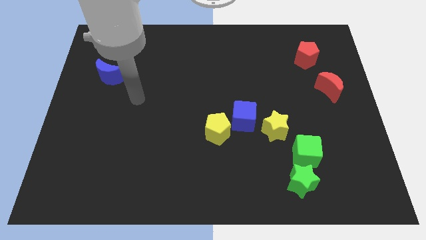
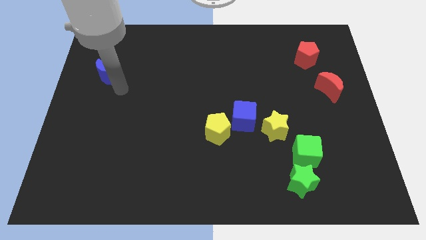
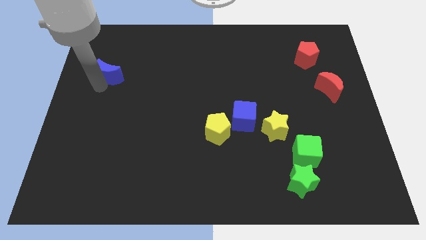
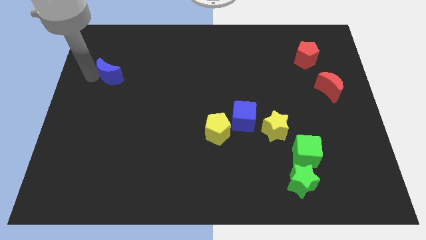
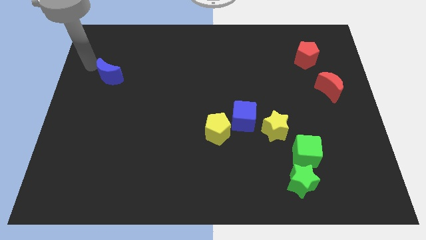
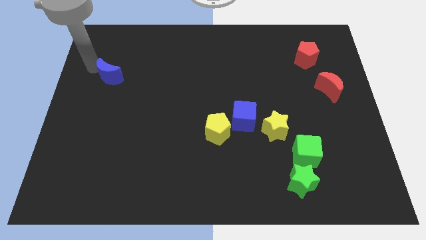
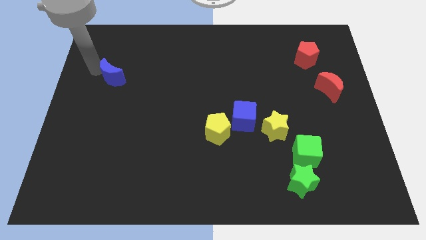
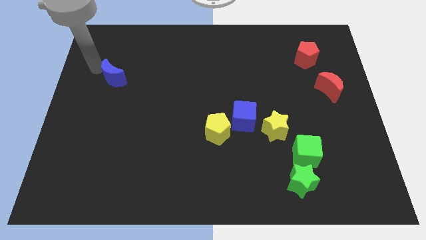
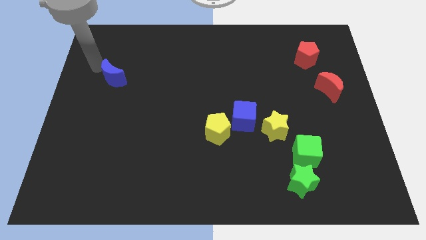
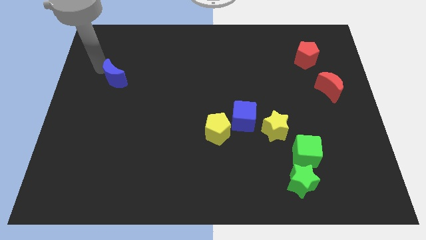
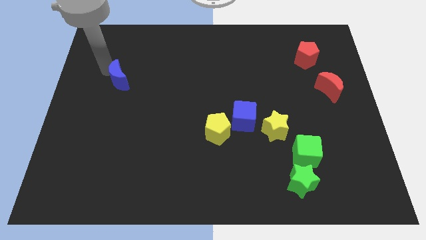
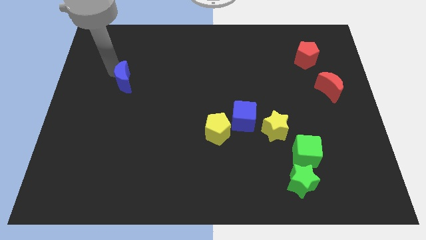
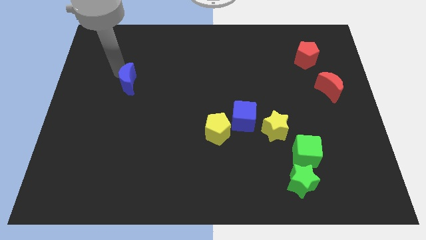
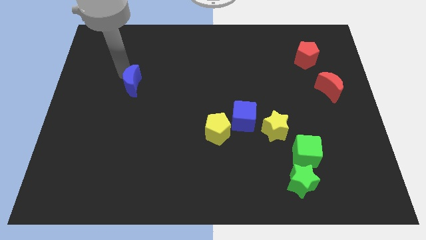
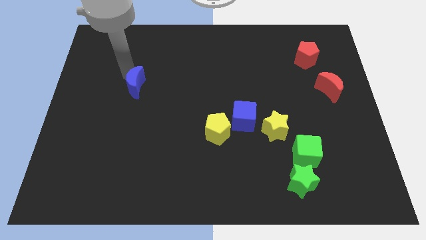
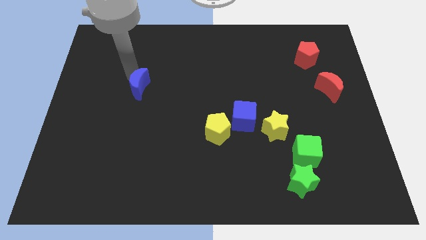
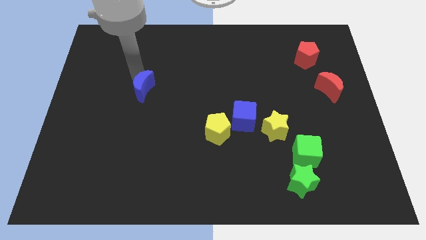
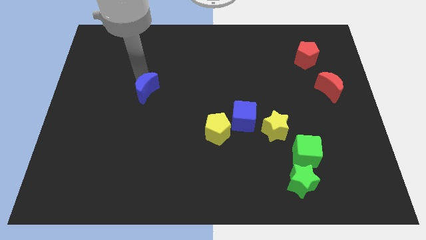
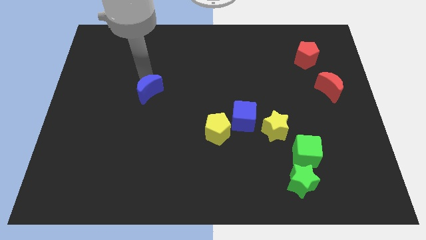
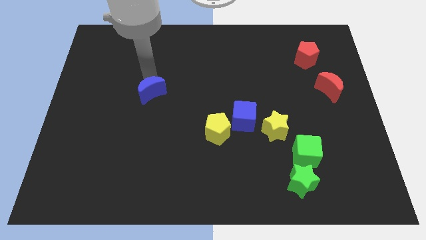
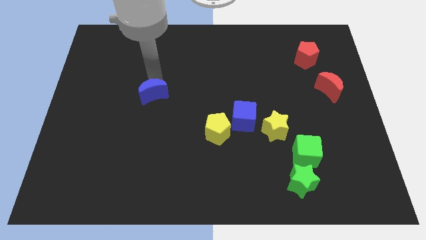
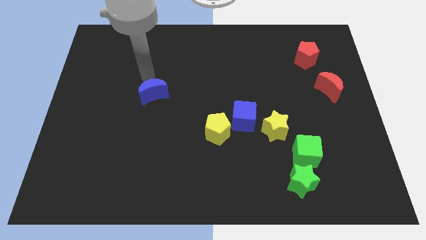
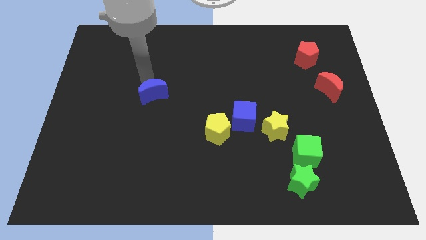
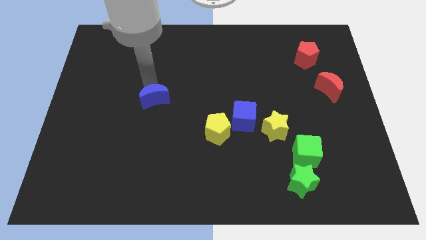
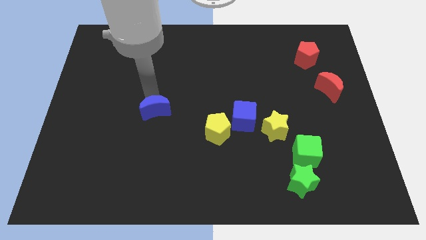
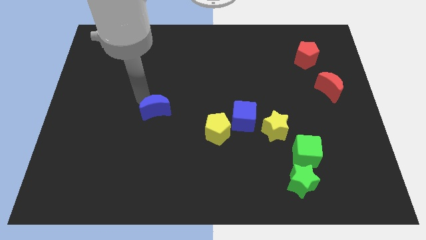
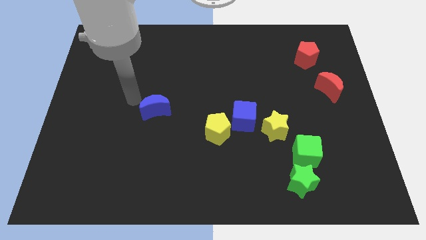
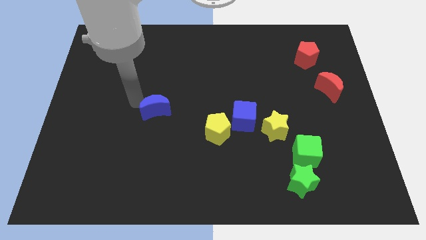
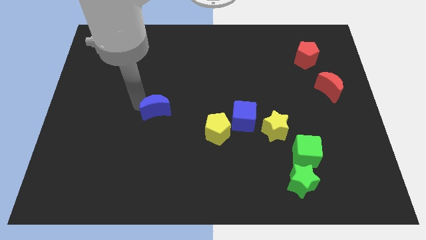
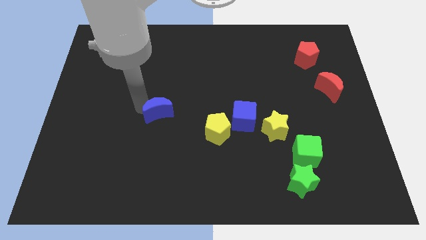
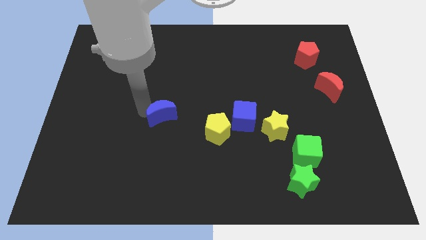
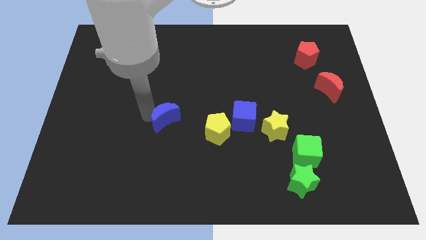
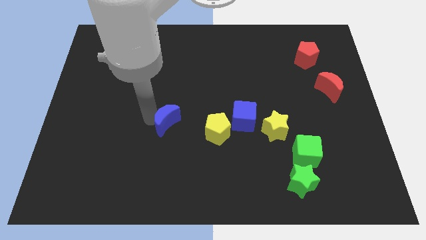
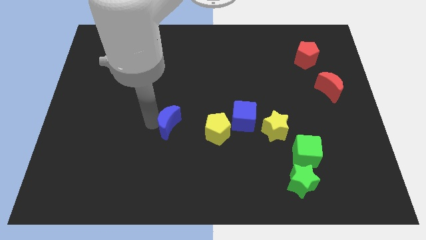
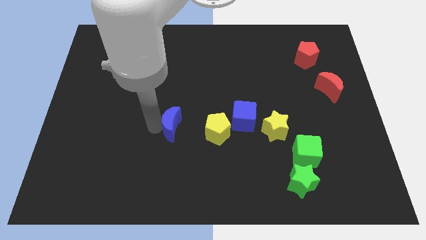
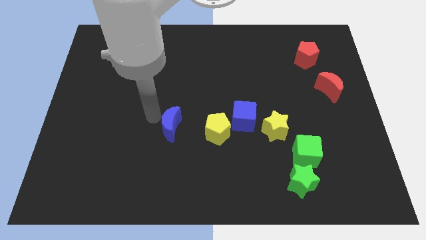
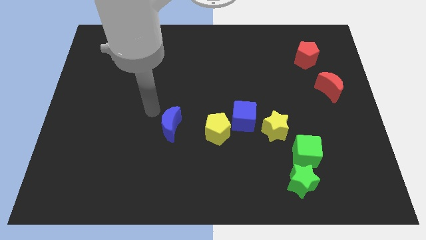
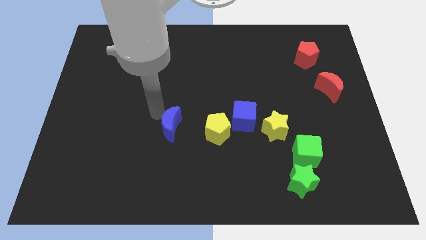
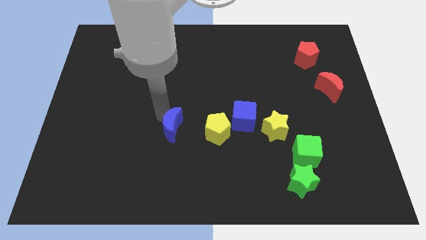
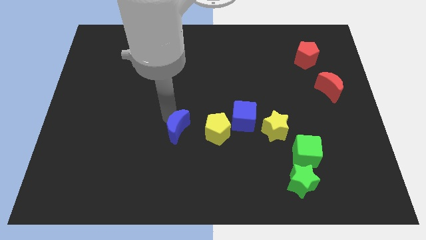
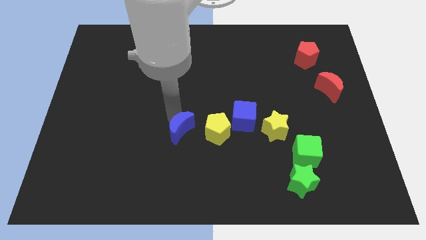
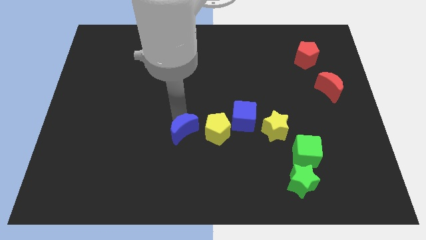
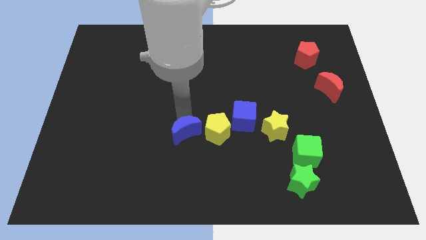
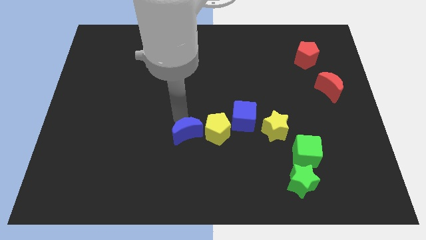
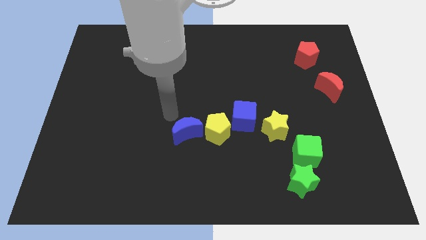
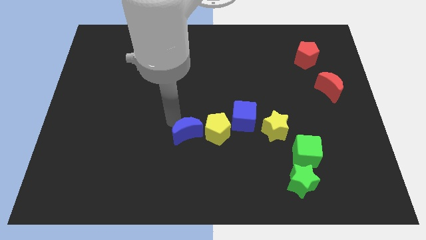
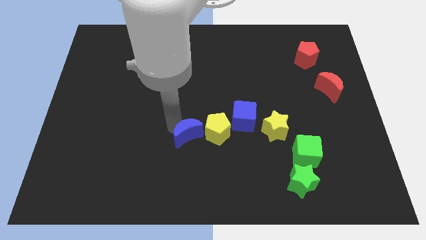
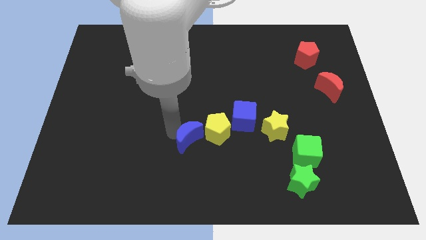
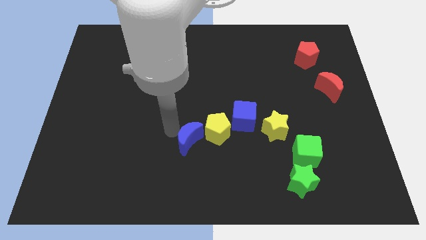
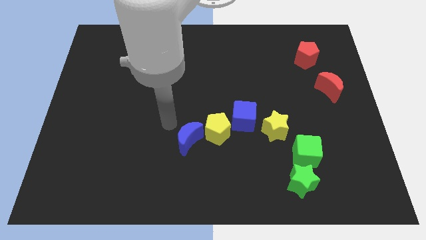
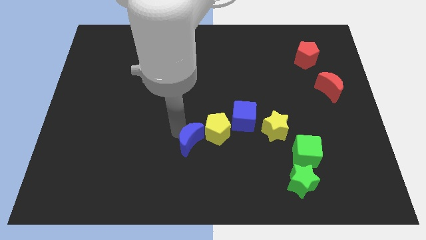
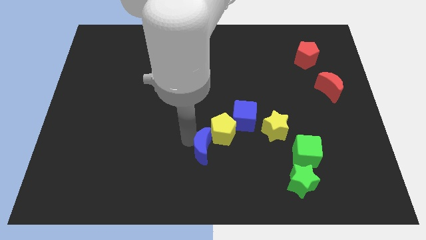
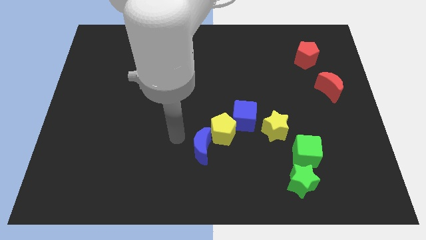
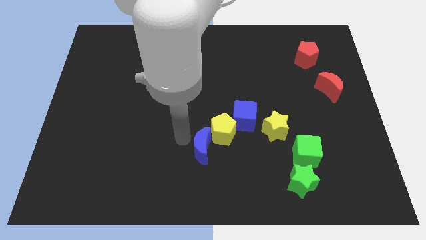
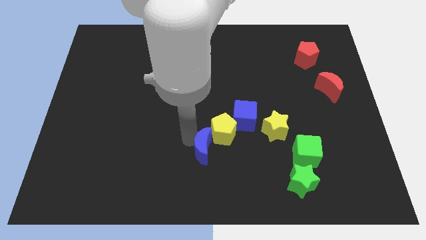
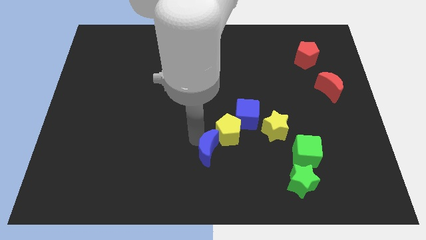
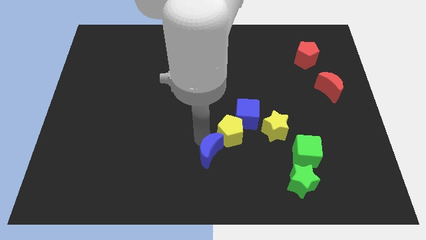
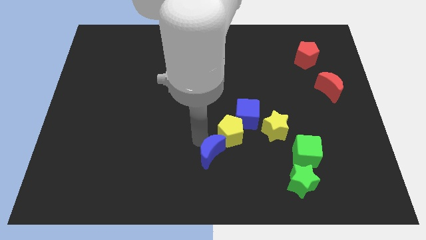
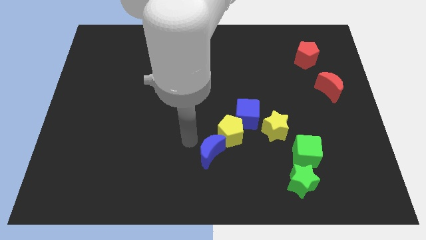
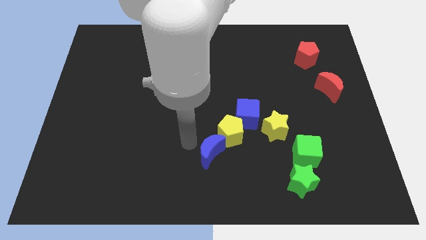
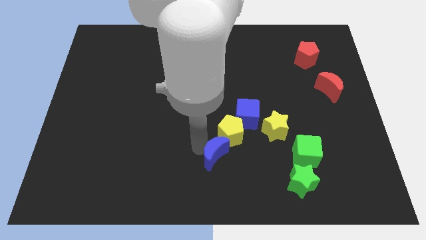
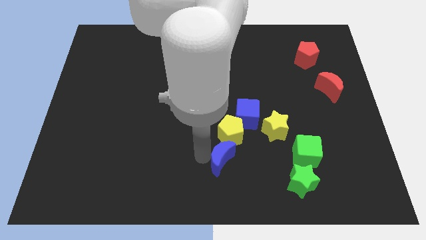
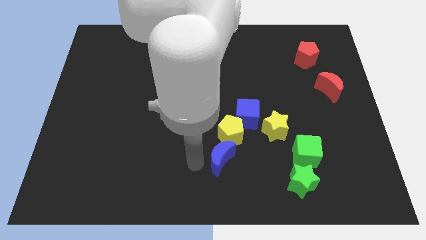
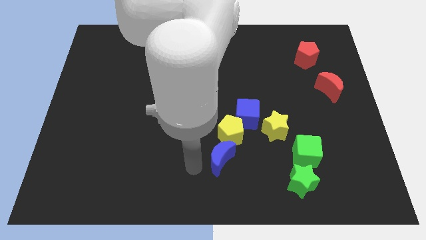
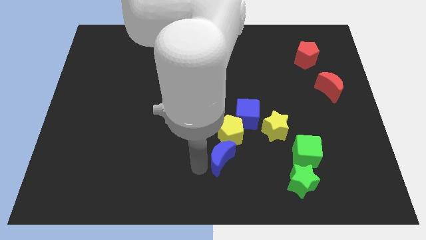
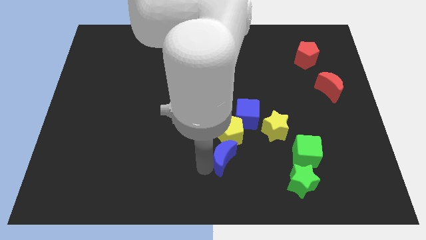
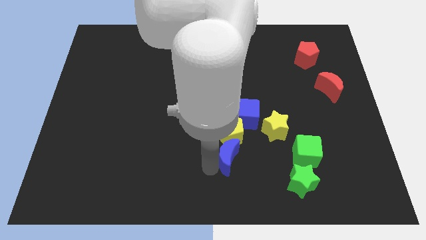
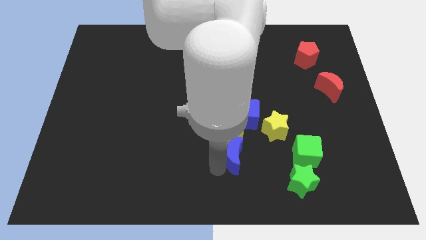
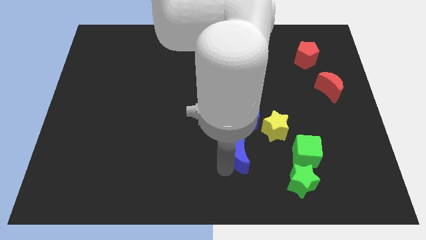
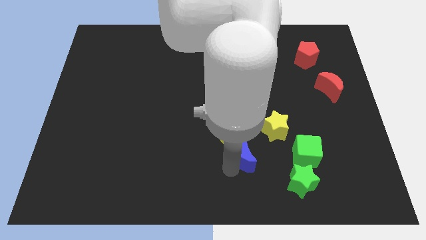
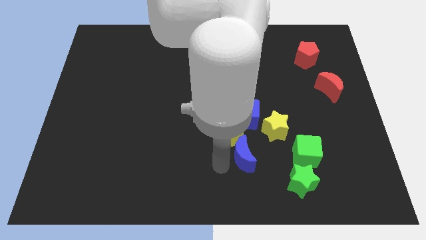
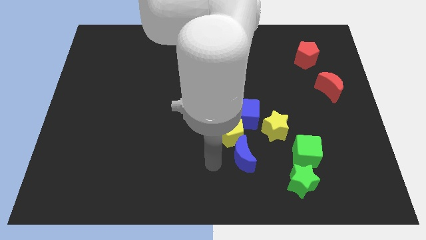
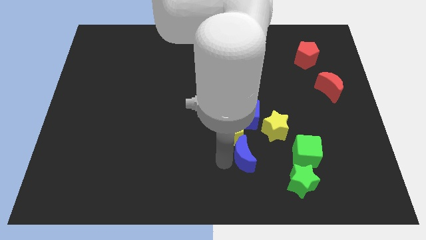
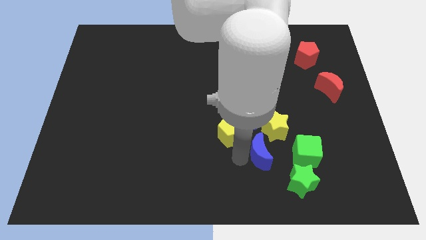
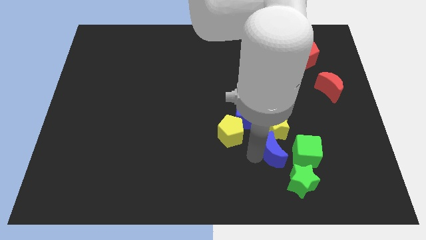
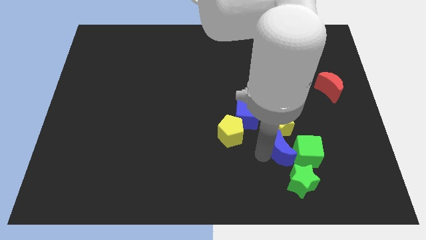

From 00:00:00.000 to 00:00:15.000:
slide the blue moon to the green cube
